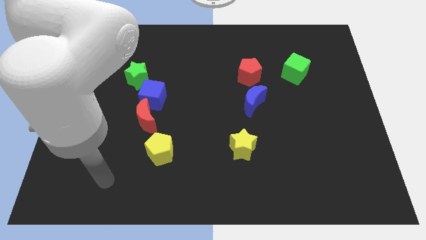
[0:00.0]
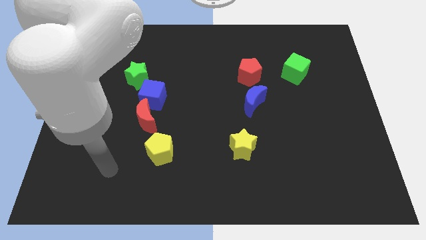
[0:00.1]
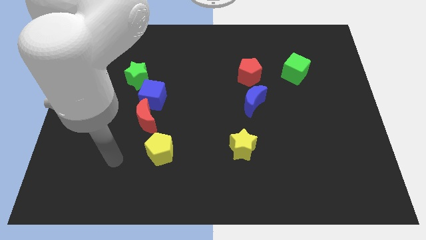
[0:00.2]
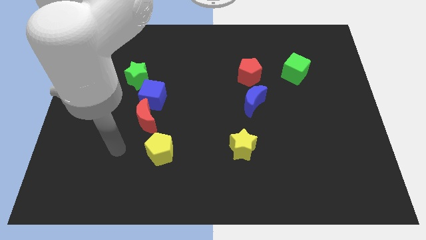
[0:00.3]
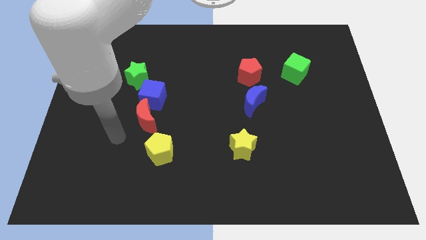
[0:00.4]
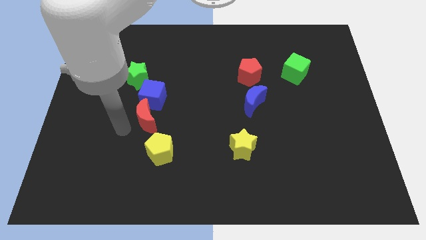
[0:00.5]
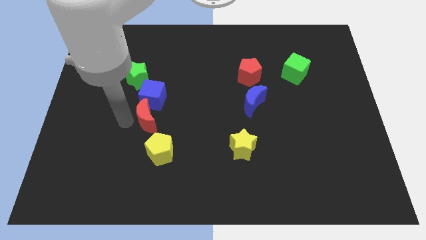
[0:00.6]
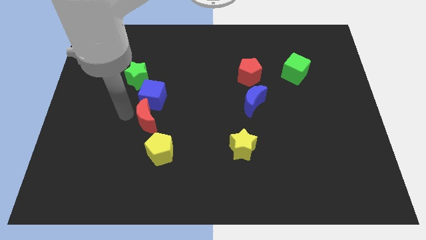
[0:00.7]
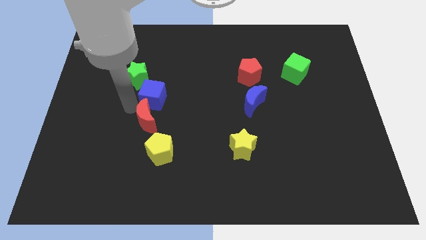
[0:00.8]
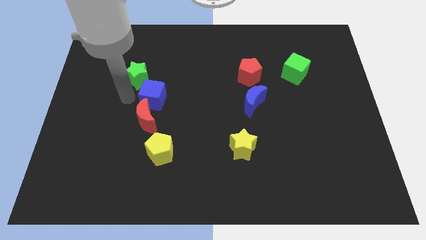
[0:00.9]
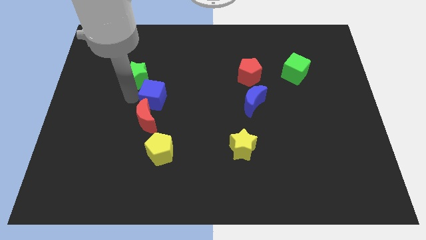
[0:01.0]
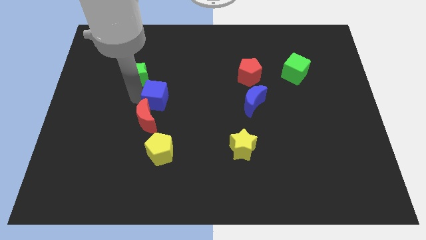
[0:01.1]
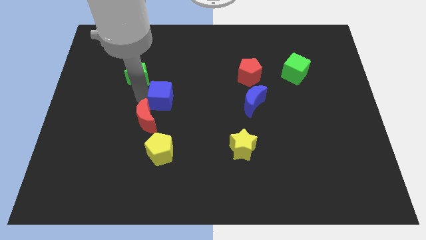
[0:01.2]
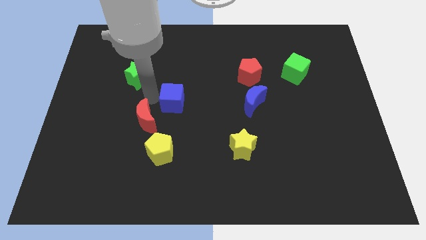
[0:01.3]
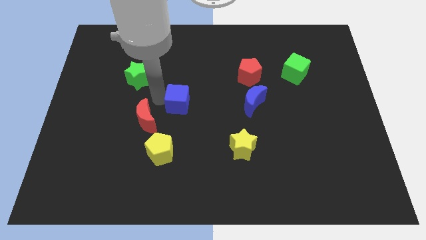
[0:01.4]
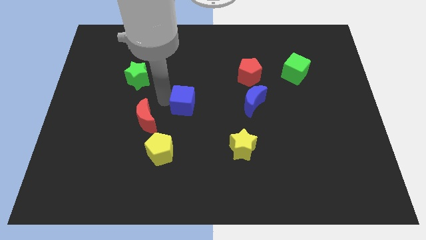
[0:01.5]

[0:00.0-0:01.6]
pull the blue cube apart from the red moon and green star

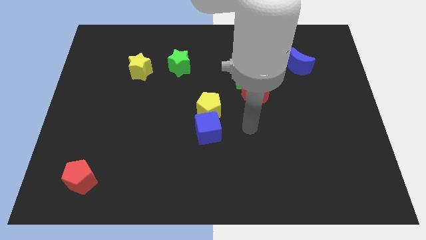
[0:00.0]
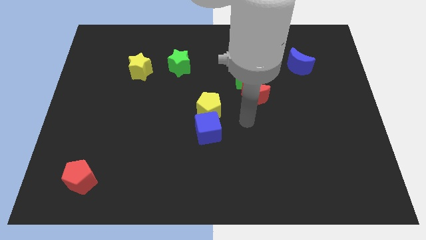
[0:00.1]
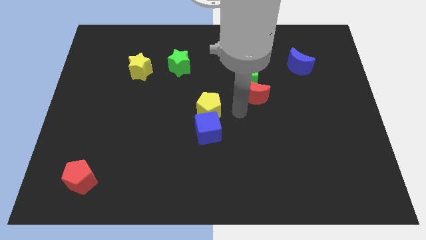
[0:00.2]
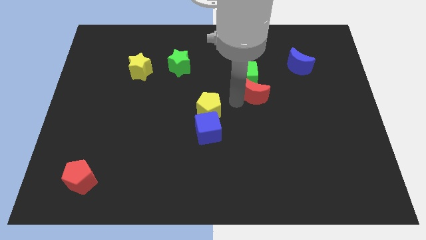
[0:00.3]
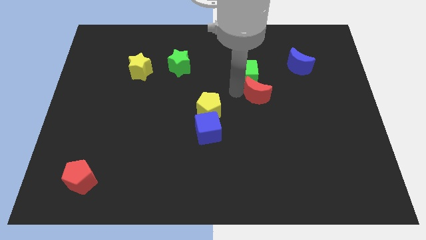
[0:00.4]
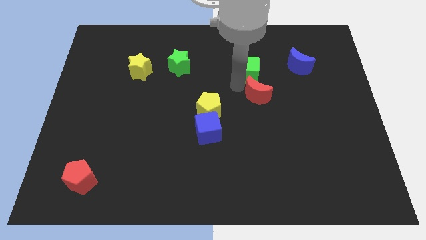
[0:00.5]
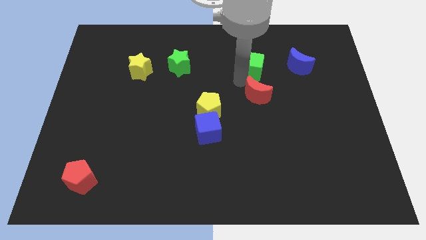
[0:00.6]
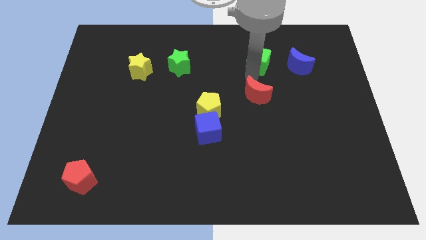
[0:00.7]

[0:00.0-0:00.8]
separate the red moon from the green cube

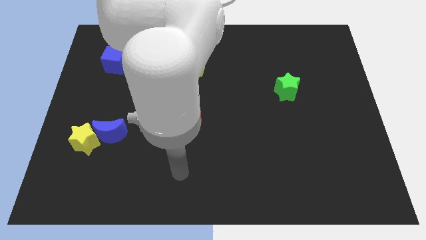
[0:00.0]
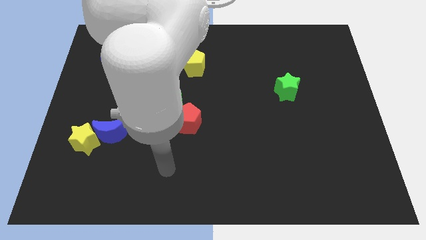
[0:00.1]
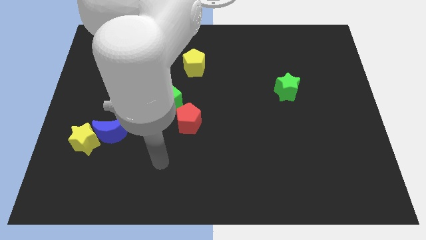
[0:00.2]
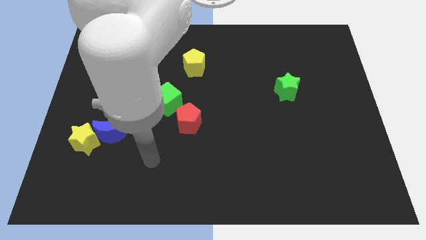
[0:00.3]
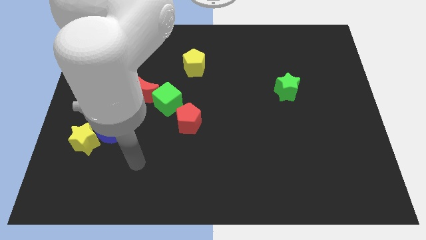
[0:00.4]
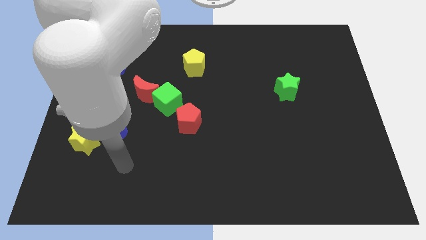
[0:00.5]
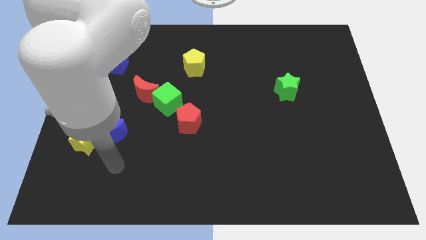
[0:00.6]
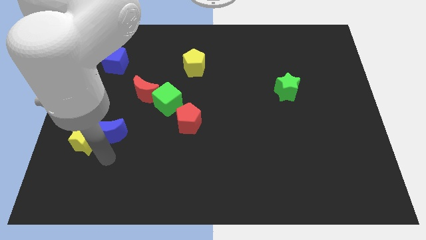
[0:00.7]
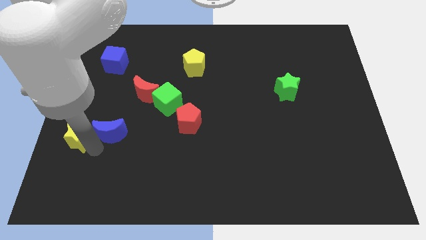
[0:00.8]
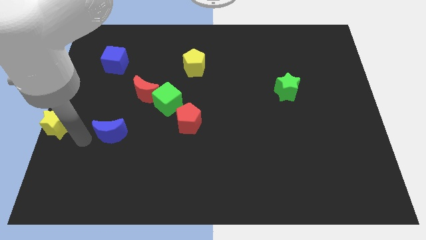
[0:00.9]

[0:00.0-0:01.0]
pull the blue moon apart from the yellow star

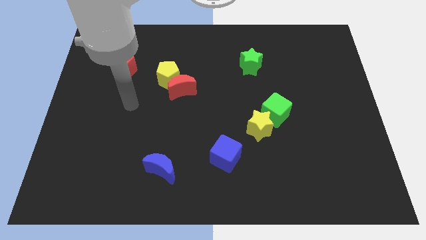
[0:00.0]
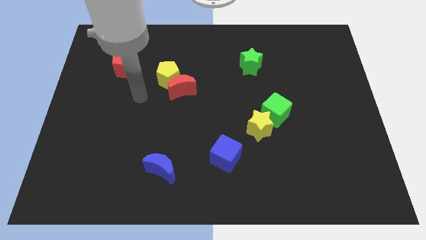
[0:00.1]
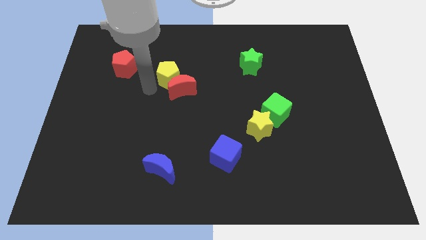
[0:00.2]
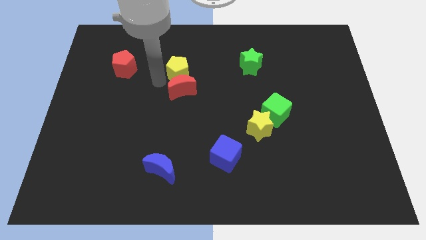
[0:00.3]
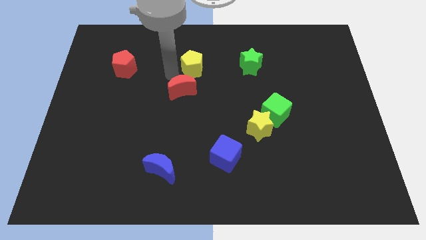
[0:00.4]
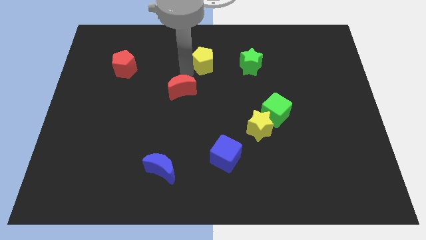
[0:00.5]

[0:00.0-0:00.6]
pull the red moon apart from the yellow pentagon

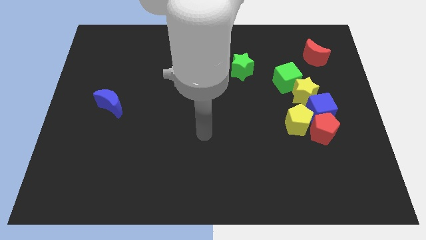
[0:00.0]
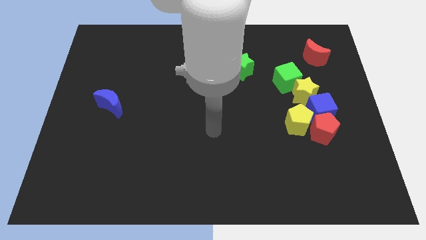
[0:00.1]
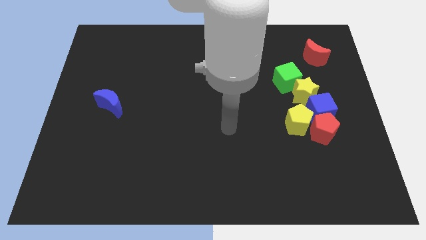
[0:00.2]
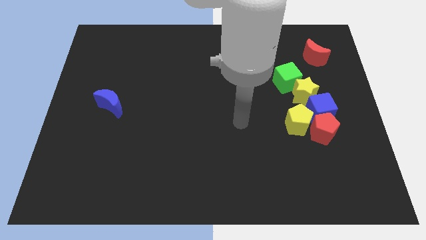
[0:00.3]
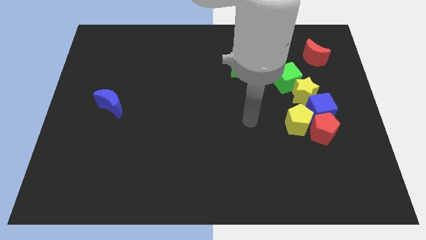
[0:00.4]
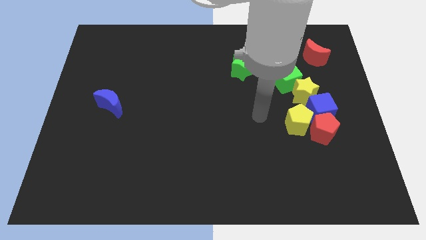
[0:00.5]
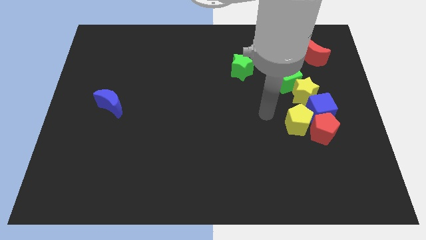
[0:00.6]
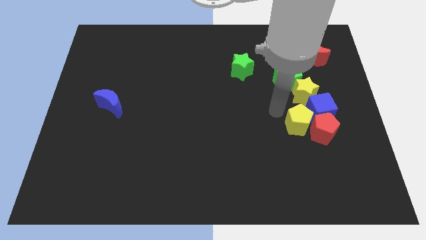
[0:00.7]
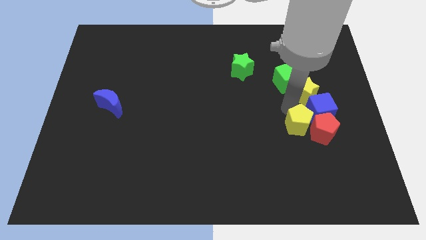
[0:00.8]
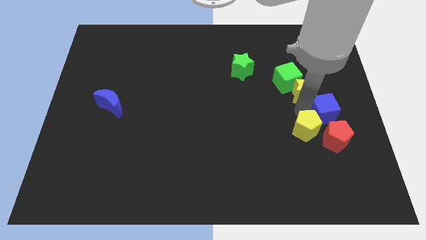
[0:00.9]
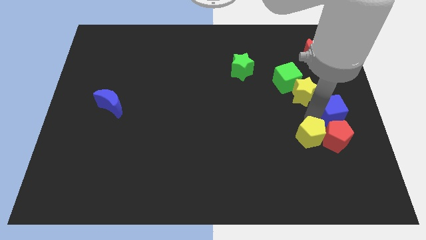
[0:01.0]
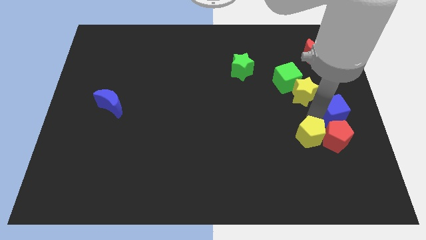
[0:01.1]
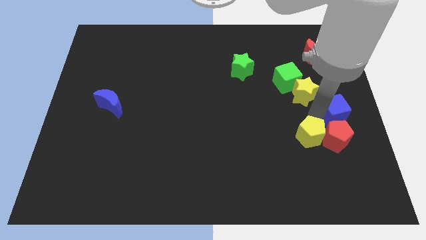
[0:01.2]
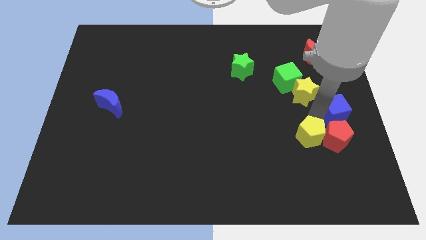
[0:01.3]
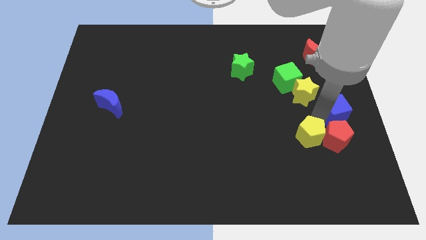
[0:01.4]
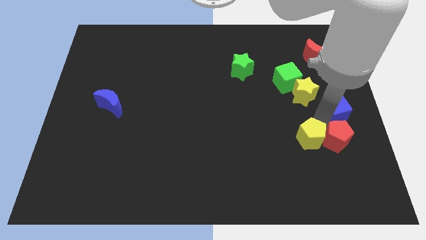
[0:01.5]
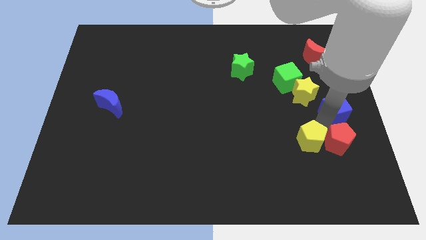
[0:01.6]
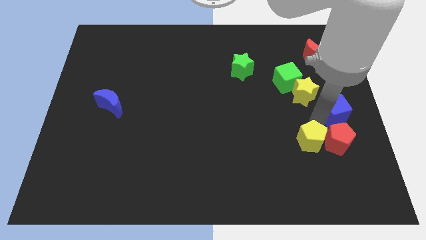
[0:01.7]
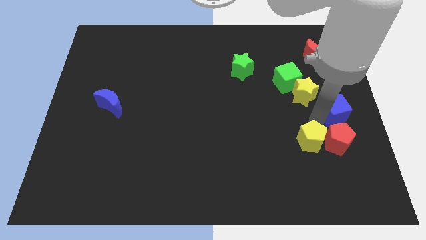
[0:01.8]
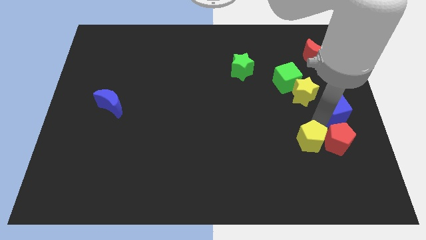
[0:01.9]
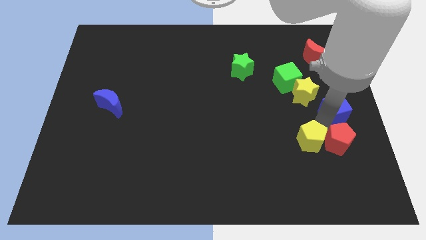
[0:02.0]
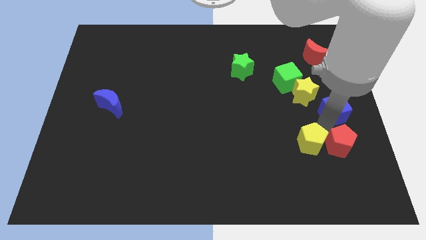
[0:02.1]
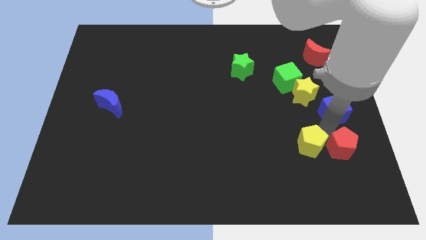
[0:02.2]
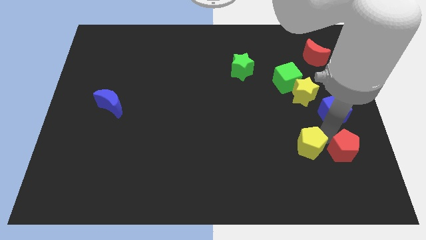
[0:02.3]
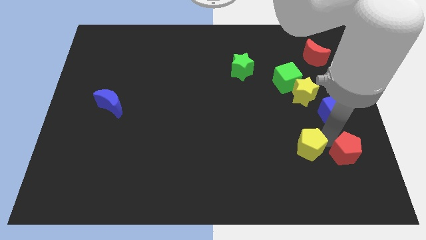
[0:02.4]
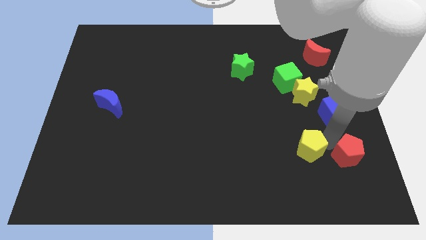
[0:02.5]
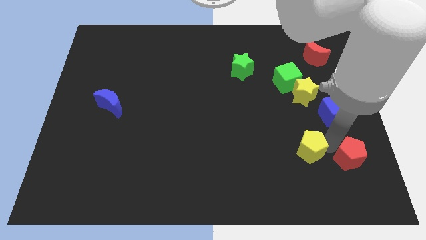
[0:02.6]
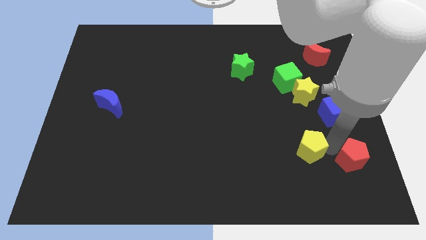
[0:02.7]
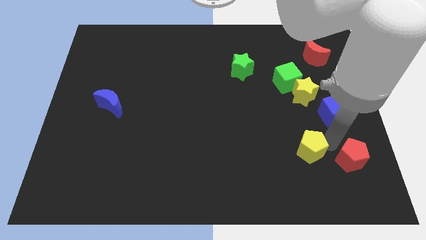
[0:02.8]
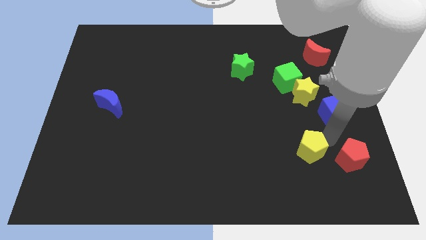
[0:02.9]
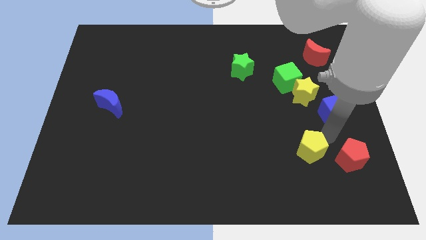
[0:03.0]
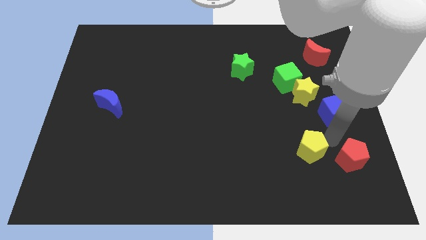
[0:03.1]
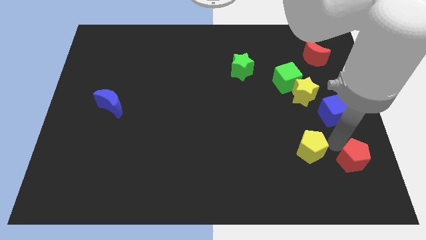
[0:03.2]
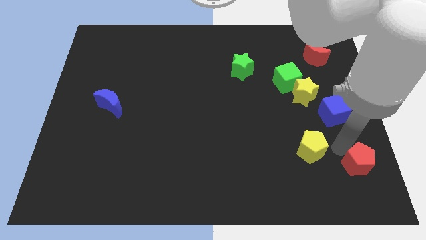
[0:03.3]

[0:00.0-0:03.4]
move the red pentagon away from the yellow pentagon and blue cube

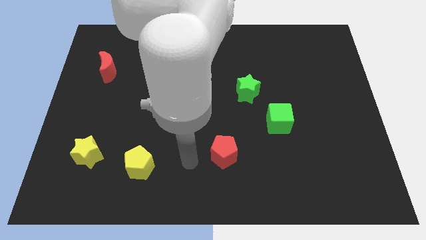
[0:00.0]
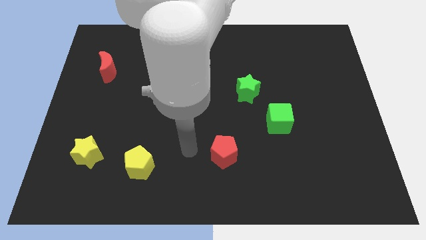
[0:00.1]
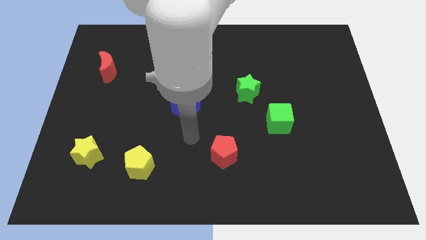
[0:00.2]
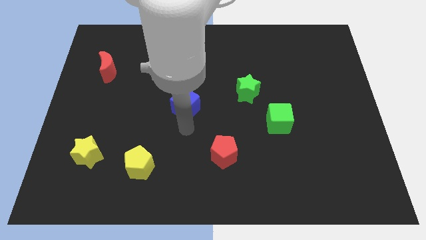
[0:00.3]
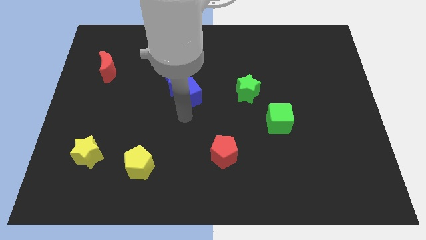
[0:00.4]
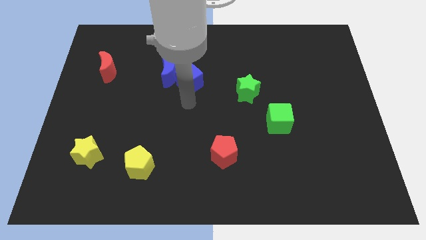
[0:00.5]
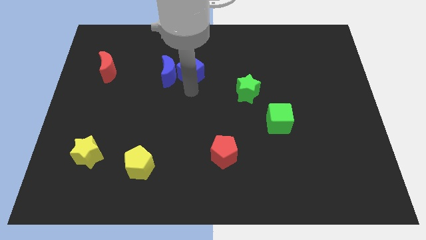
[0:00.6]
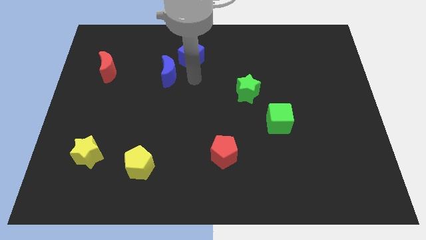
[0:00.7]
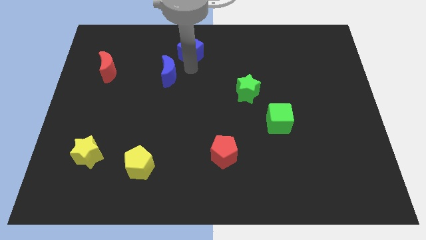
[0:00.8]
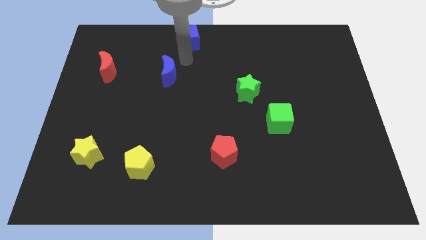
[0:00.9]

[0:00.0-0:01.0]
separate the blue moon from the blue cube

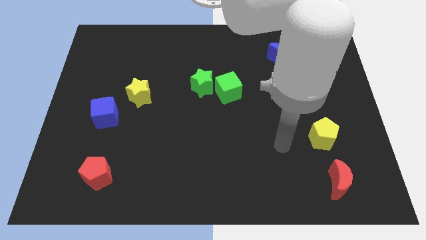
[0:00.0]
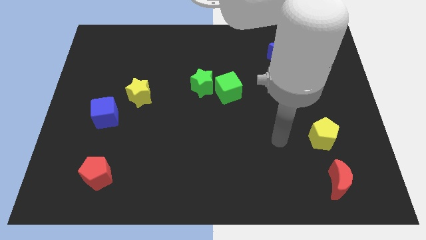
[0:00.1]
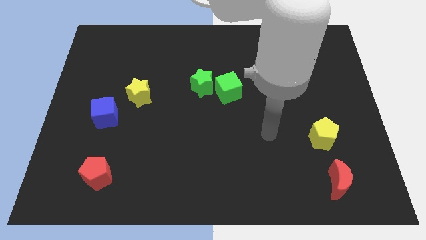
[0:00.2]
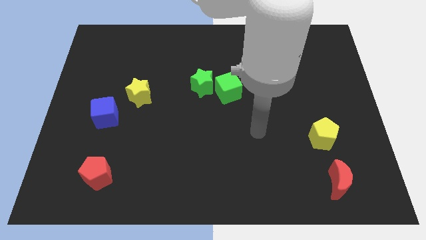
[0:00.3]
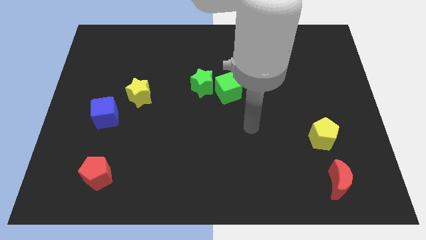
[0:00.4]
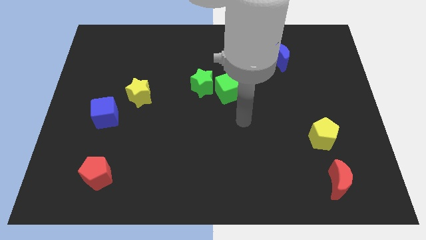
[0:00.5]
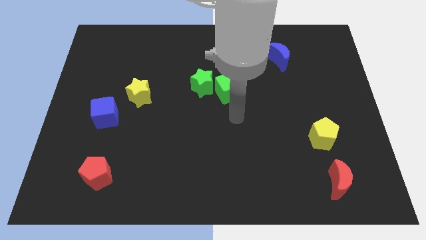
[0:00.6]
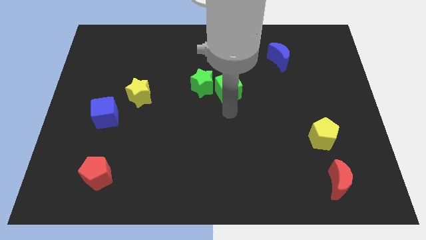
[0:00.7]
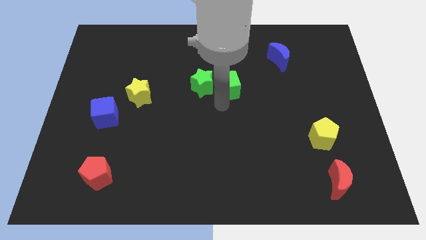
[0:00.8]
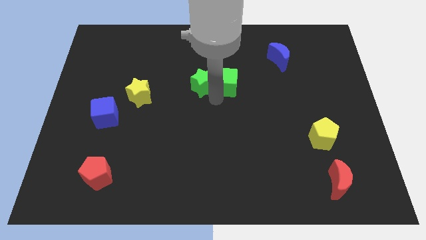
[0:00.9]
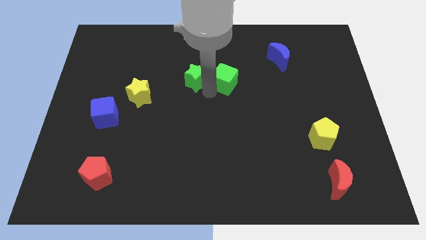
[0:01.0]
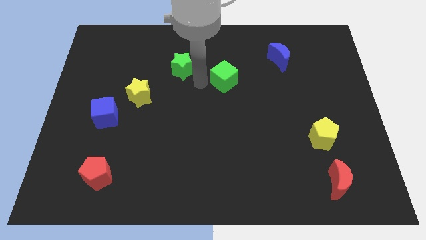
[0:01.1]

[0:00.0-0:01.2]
separate the green cube from the green star
